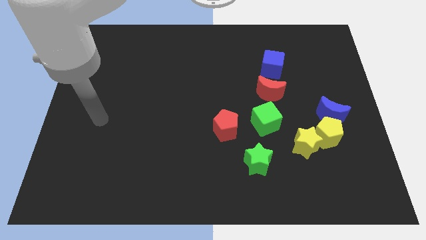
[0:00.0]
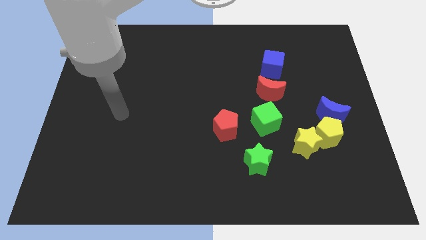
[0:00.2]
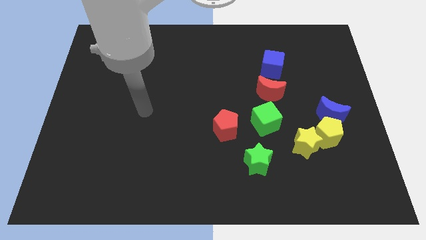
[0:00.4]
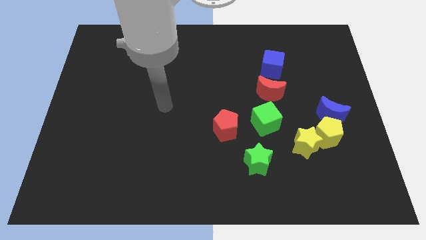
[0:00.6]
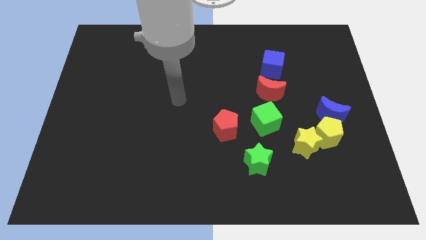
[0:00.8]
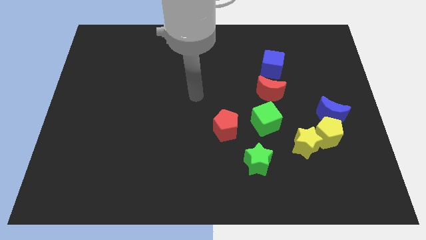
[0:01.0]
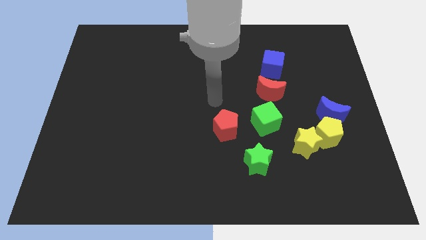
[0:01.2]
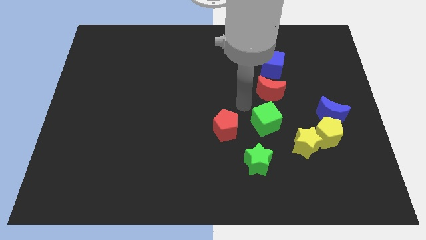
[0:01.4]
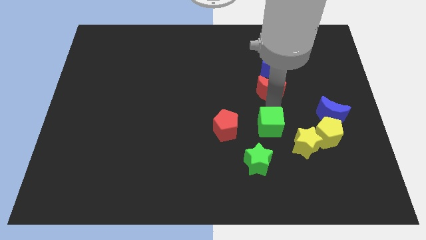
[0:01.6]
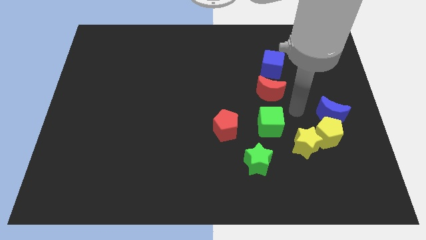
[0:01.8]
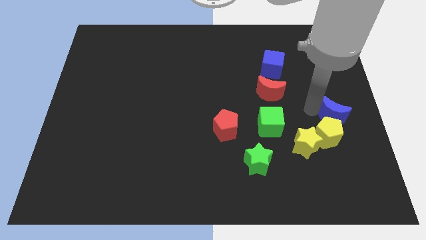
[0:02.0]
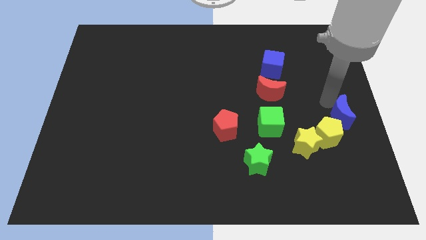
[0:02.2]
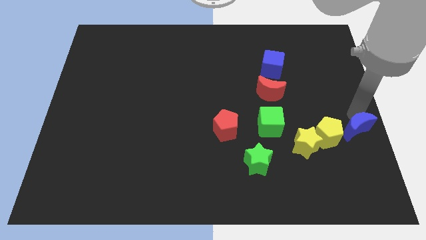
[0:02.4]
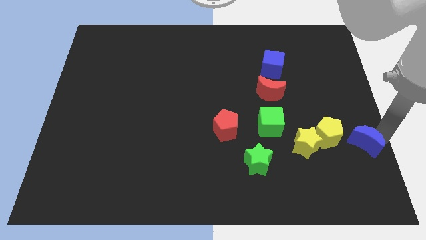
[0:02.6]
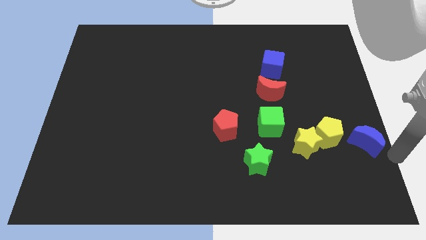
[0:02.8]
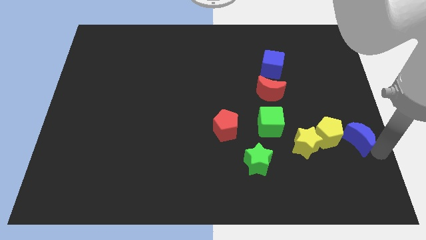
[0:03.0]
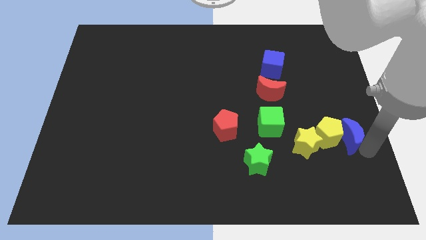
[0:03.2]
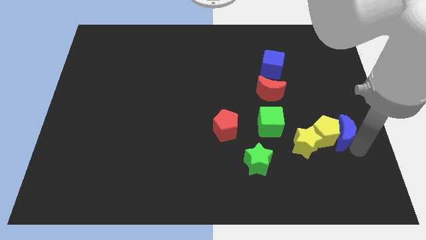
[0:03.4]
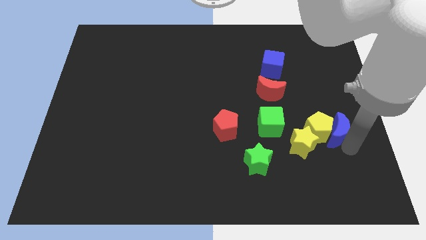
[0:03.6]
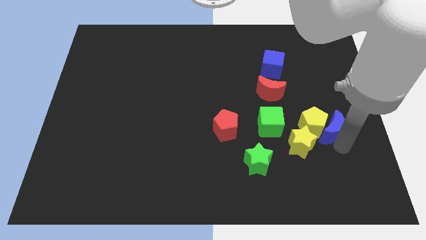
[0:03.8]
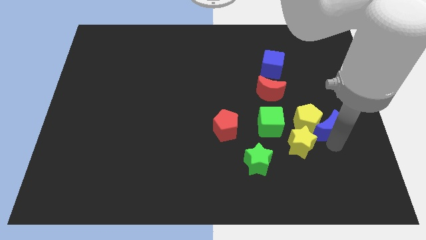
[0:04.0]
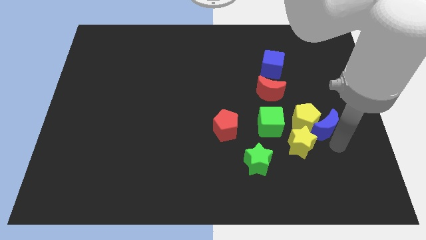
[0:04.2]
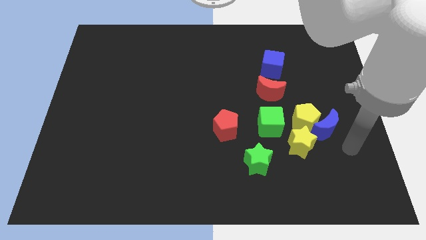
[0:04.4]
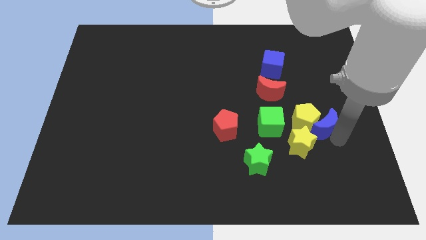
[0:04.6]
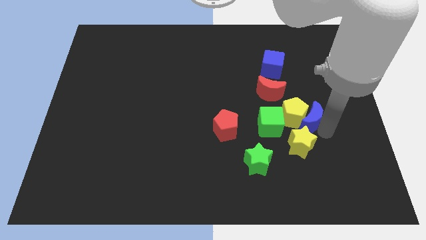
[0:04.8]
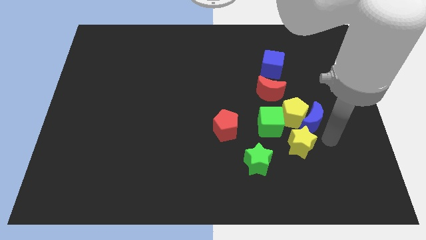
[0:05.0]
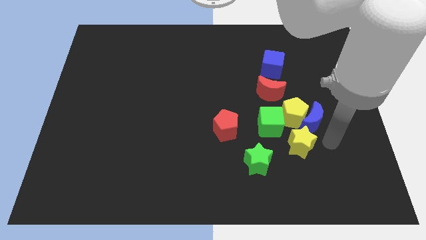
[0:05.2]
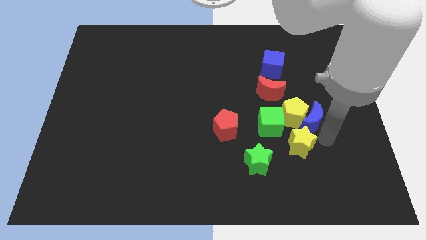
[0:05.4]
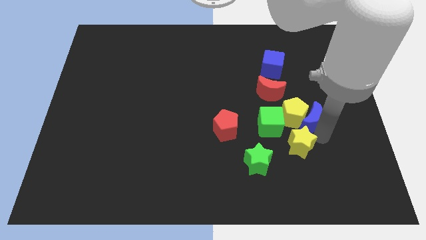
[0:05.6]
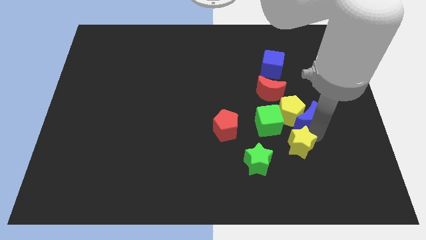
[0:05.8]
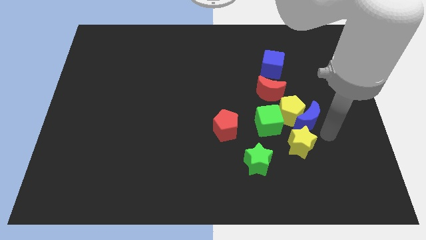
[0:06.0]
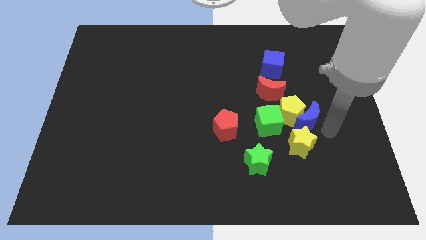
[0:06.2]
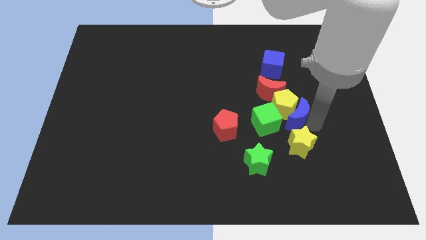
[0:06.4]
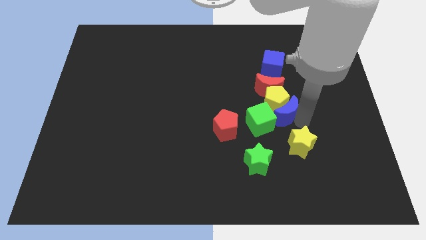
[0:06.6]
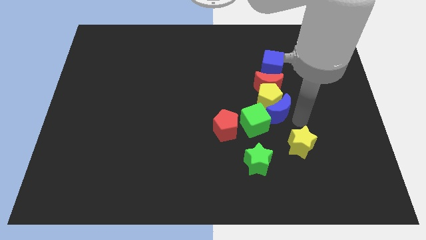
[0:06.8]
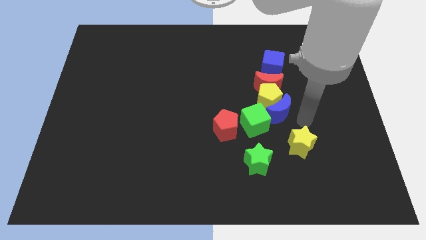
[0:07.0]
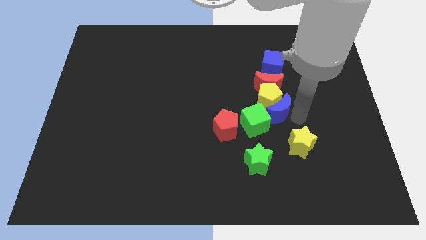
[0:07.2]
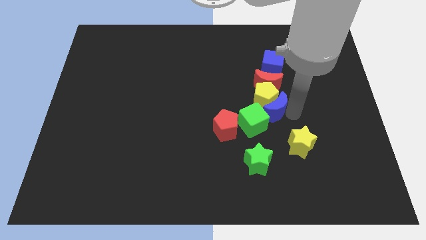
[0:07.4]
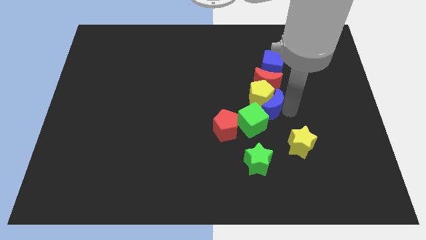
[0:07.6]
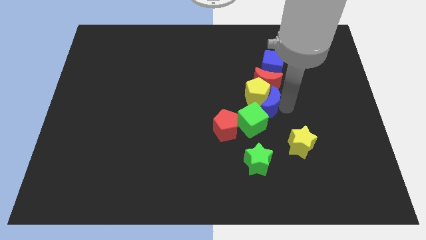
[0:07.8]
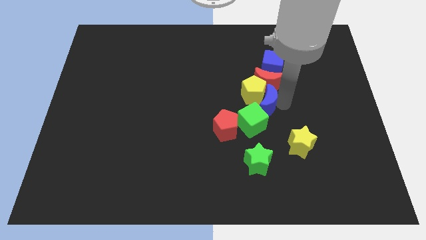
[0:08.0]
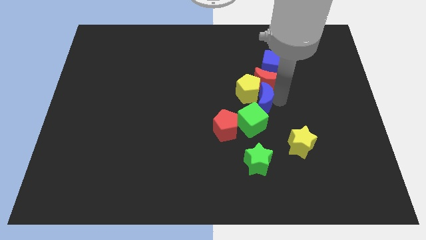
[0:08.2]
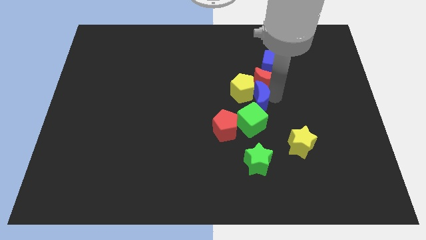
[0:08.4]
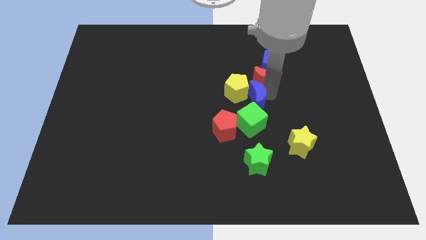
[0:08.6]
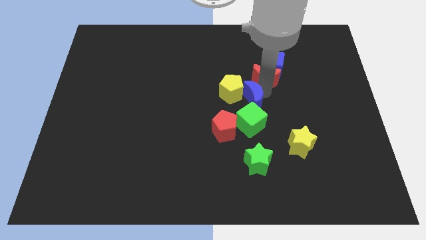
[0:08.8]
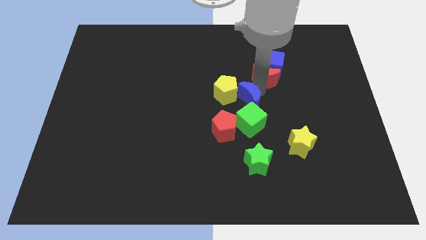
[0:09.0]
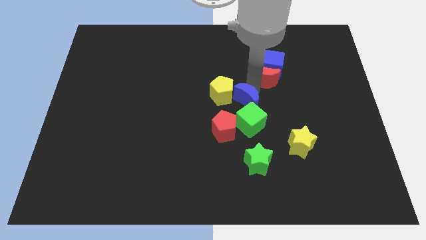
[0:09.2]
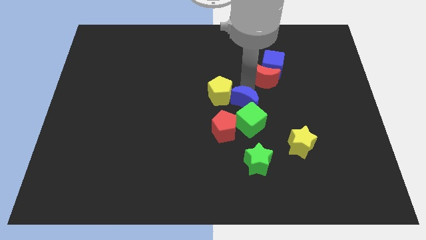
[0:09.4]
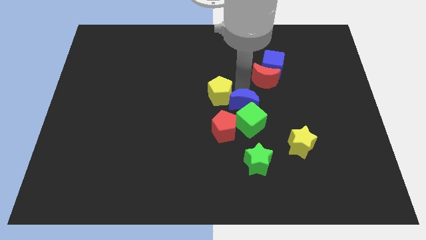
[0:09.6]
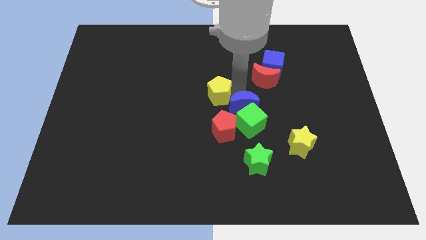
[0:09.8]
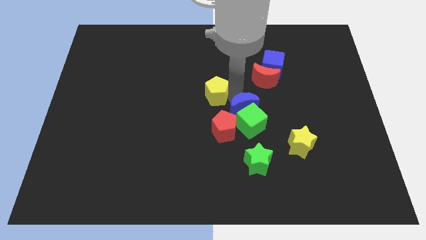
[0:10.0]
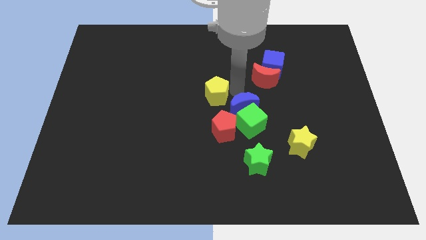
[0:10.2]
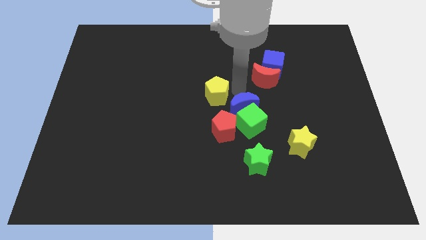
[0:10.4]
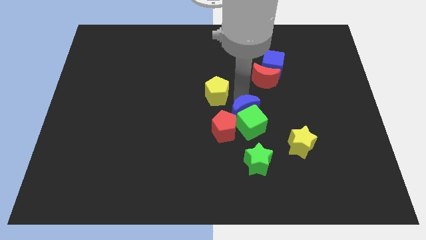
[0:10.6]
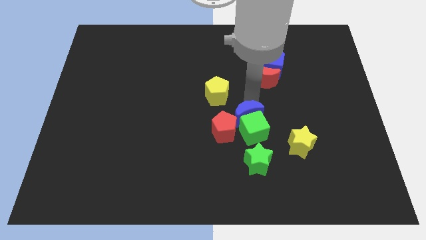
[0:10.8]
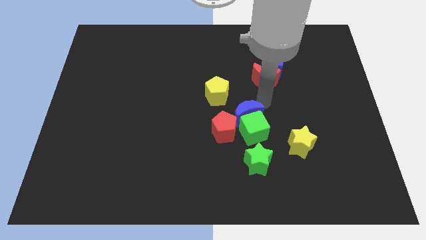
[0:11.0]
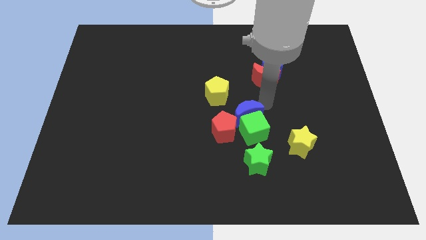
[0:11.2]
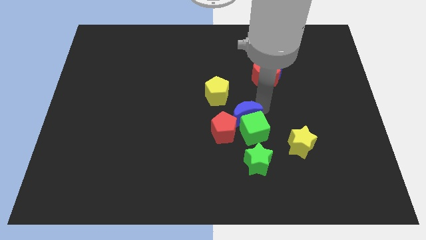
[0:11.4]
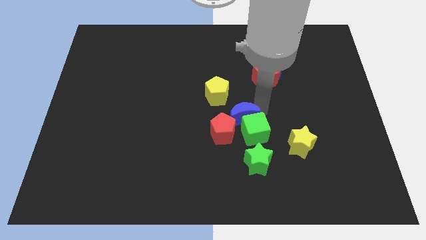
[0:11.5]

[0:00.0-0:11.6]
push the blue moon next to the red pentagon
